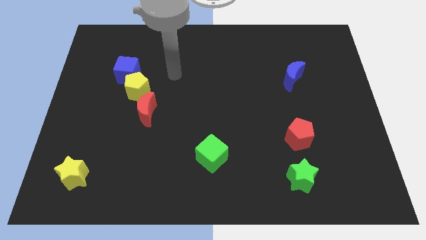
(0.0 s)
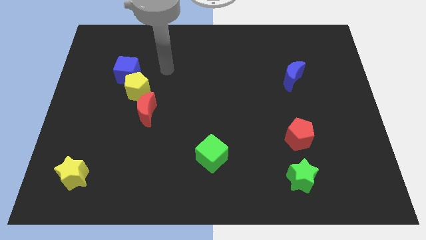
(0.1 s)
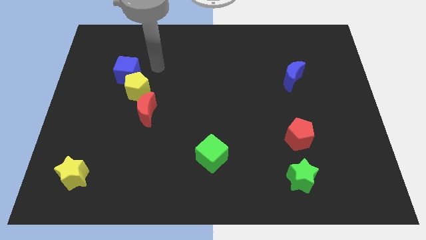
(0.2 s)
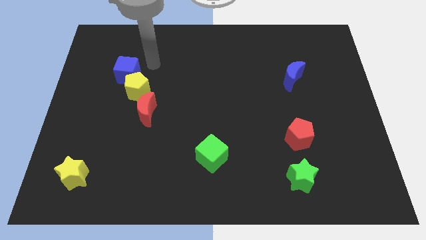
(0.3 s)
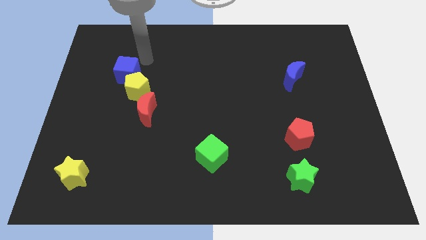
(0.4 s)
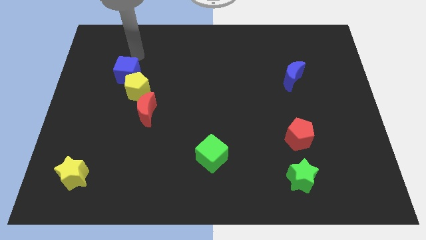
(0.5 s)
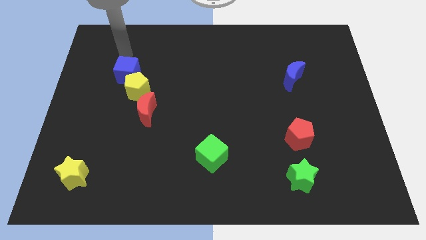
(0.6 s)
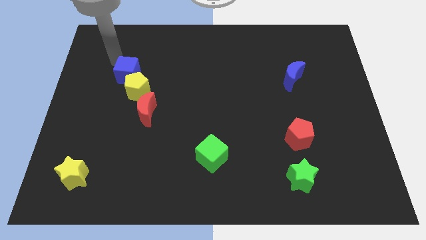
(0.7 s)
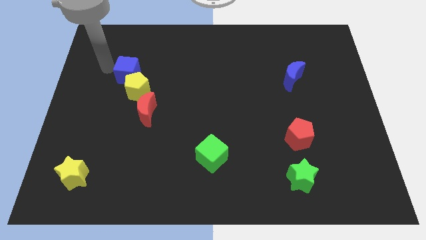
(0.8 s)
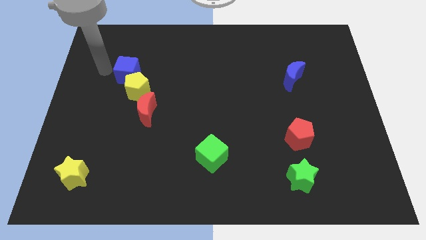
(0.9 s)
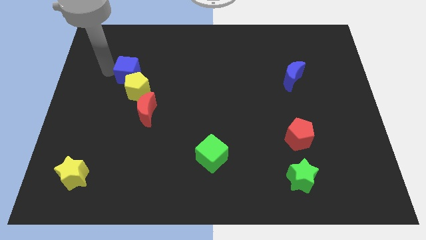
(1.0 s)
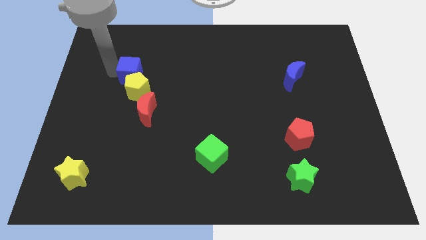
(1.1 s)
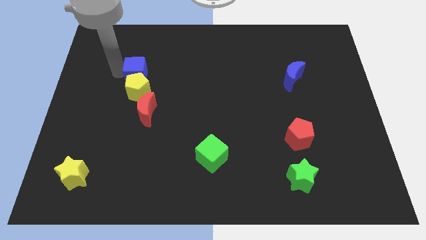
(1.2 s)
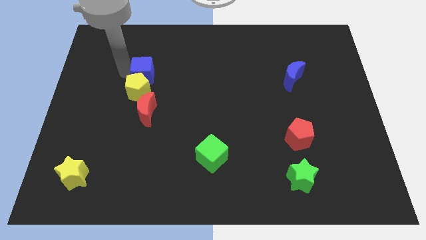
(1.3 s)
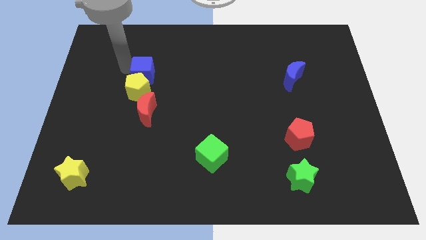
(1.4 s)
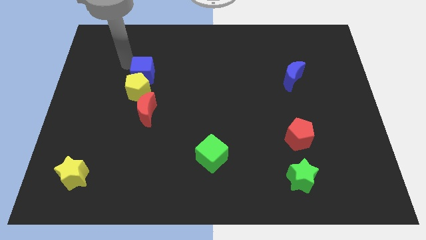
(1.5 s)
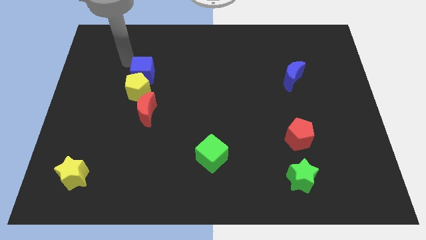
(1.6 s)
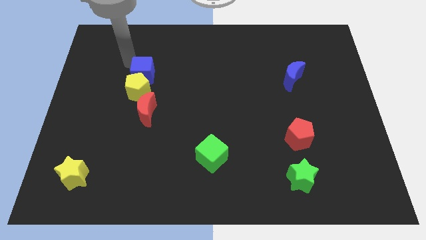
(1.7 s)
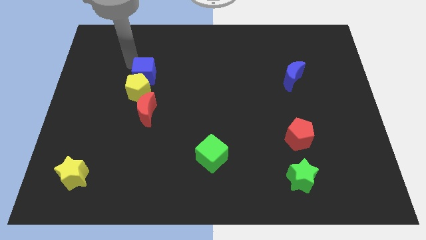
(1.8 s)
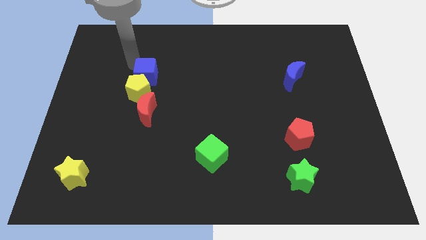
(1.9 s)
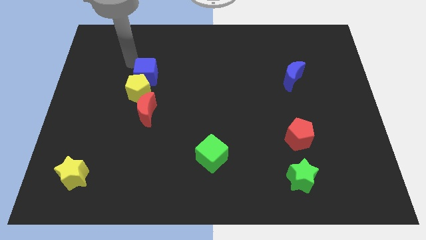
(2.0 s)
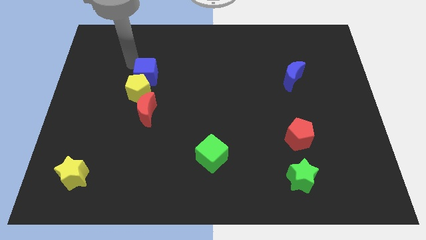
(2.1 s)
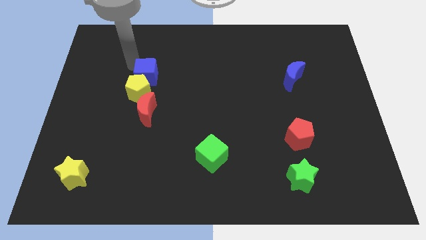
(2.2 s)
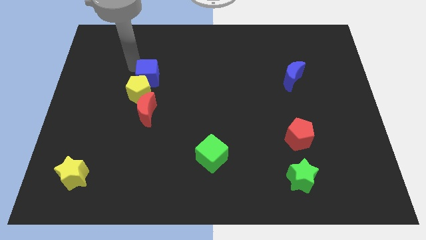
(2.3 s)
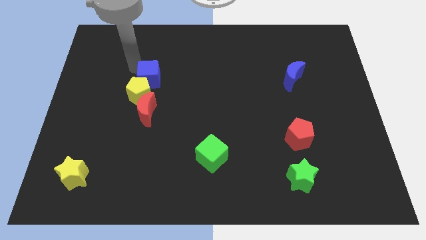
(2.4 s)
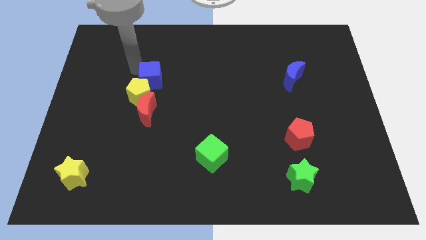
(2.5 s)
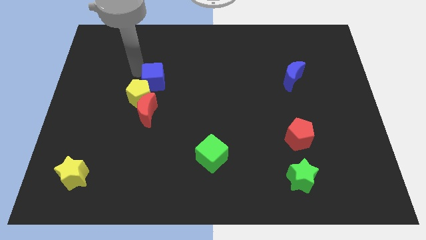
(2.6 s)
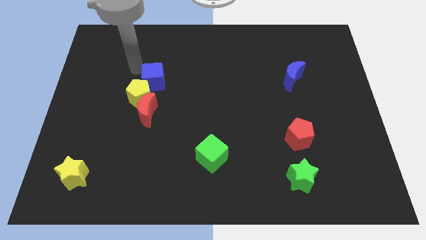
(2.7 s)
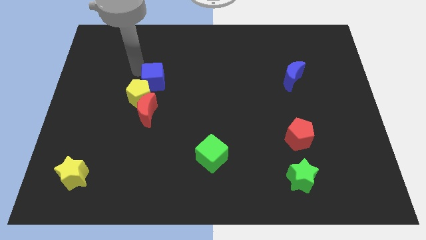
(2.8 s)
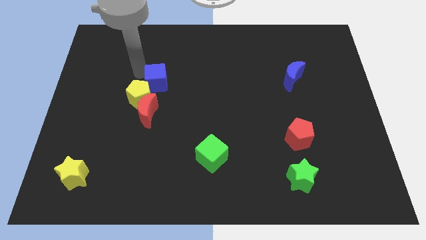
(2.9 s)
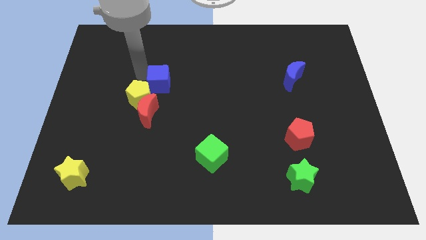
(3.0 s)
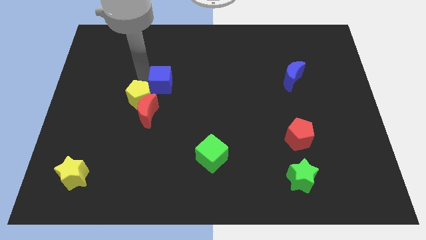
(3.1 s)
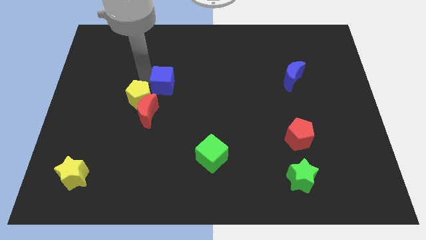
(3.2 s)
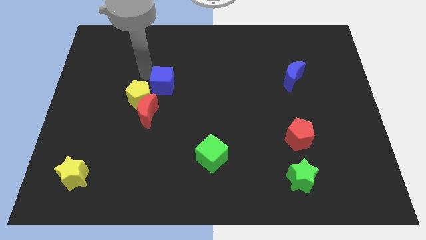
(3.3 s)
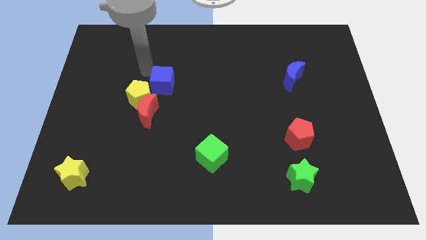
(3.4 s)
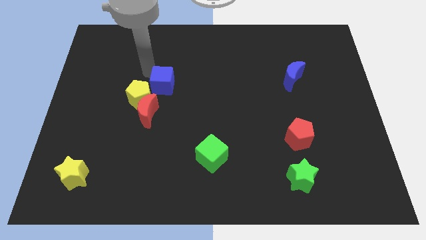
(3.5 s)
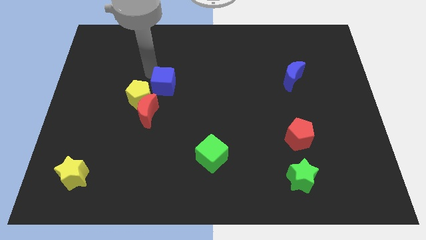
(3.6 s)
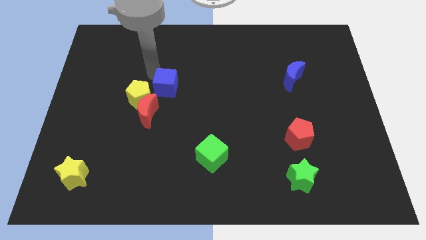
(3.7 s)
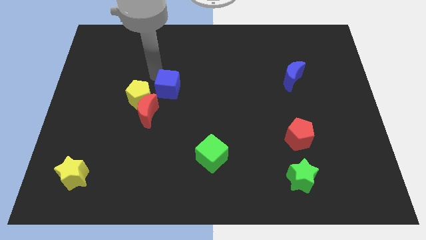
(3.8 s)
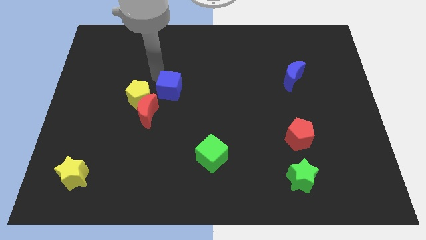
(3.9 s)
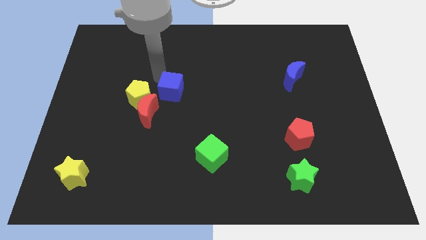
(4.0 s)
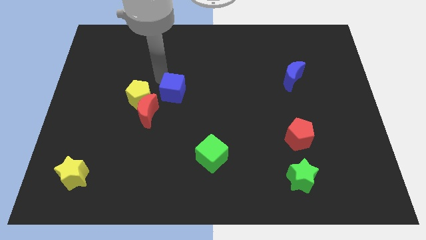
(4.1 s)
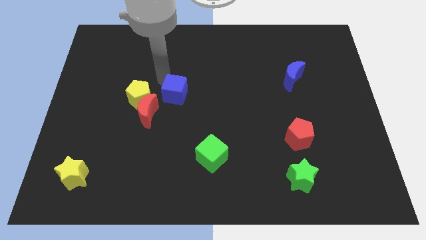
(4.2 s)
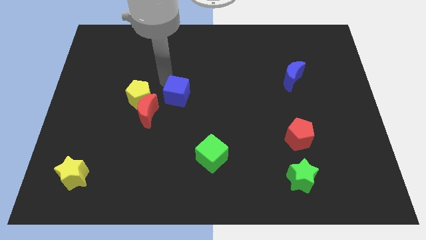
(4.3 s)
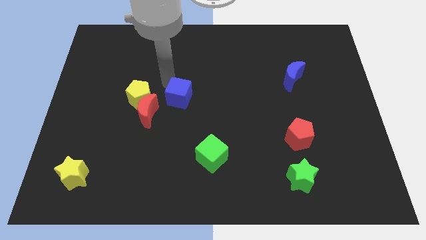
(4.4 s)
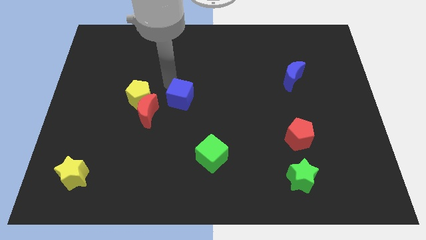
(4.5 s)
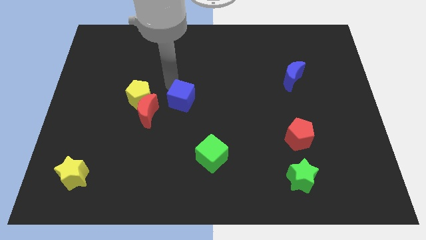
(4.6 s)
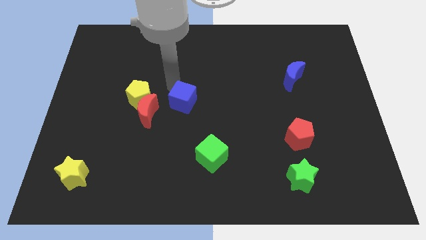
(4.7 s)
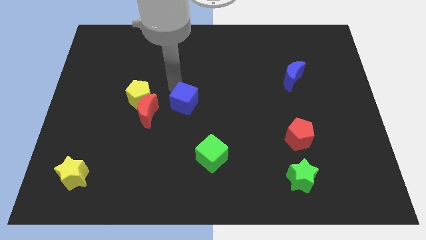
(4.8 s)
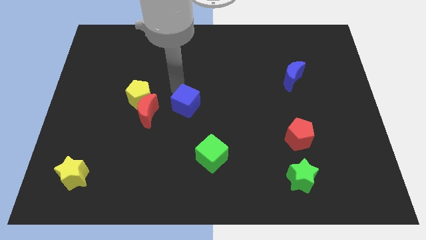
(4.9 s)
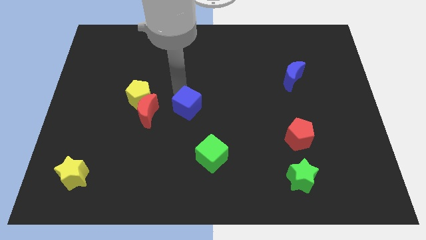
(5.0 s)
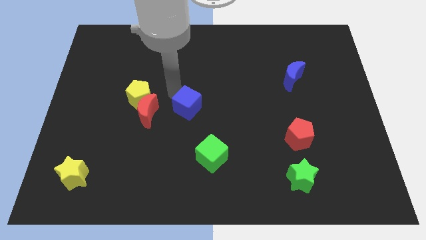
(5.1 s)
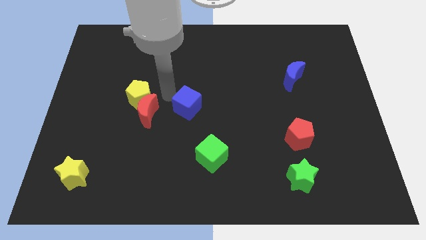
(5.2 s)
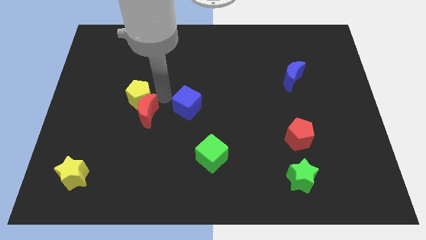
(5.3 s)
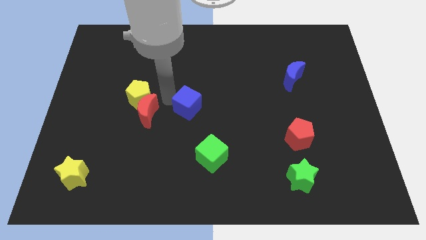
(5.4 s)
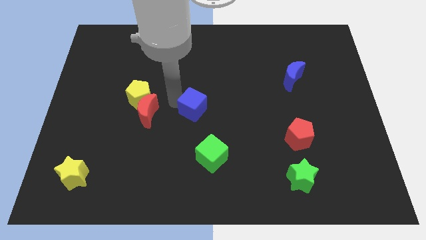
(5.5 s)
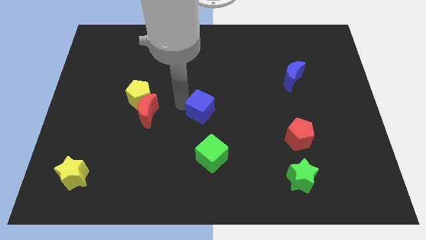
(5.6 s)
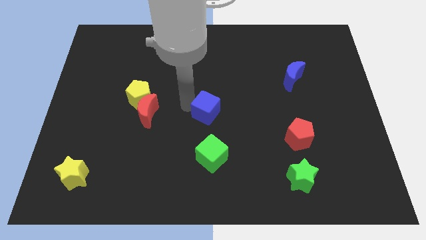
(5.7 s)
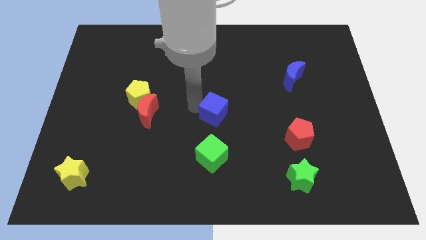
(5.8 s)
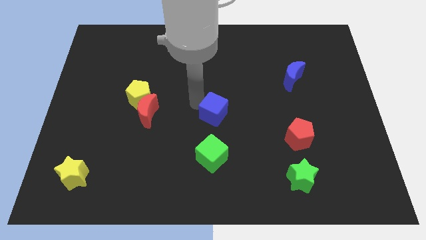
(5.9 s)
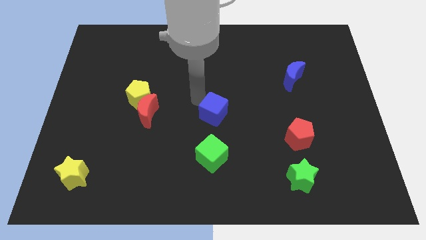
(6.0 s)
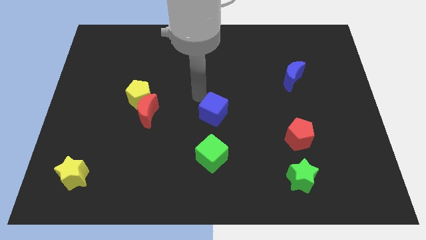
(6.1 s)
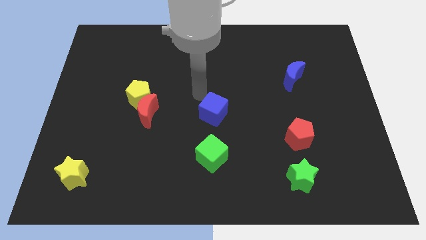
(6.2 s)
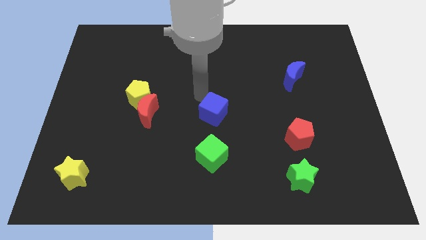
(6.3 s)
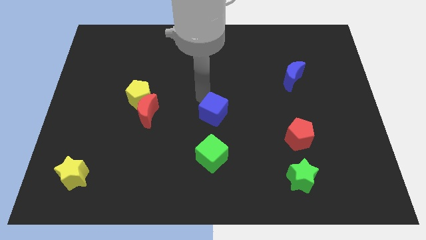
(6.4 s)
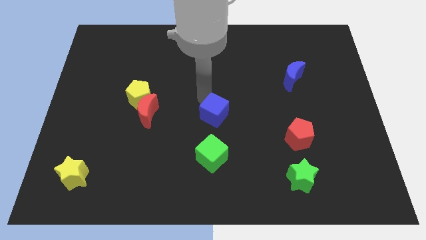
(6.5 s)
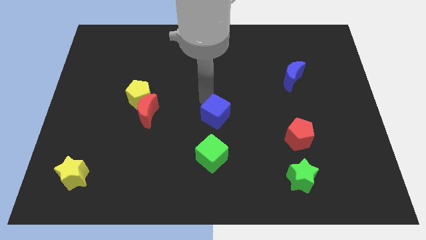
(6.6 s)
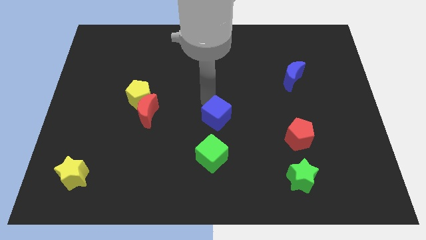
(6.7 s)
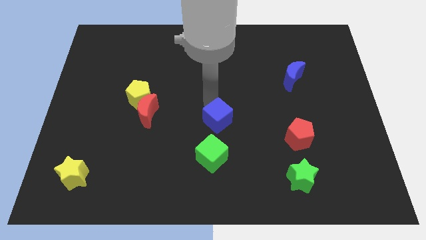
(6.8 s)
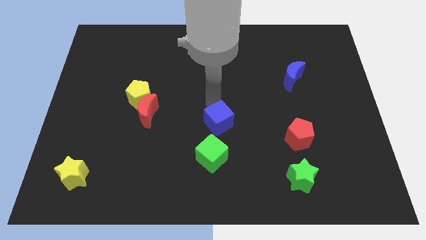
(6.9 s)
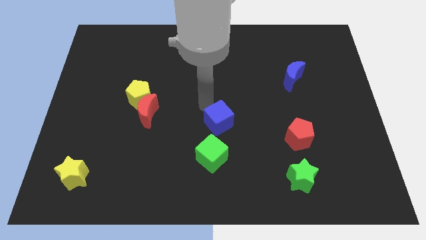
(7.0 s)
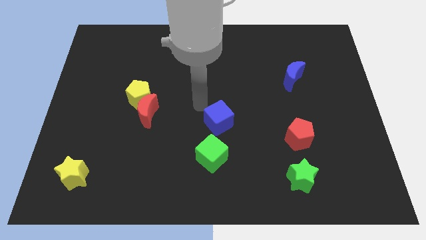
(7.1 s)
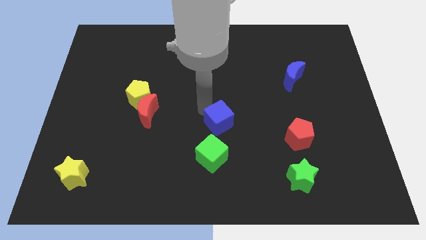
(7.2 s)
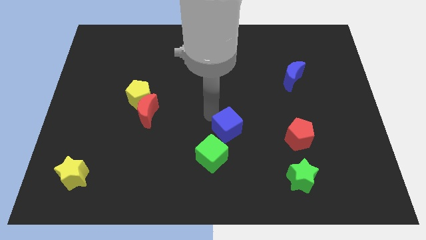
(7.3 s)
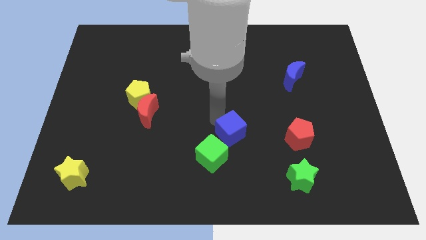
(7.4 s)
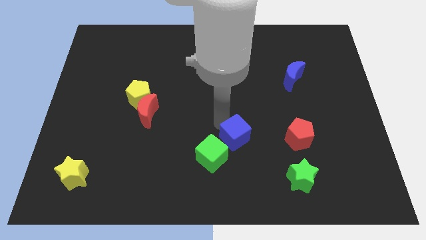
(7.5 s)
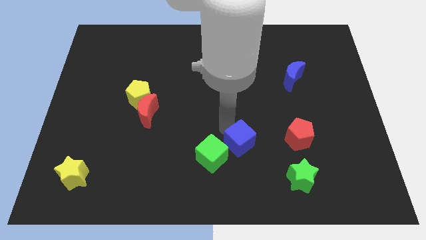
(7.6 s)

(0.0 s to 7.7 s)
slide the blue cube just right of the green cube
